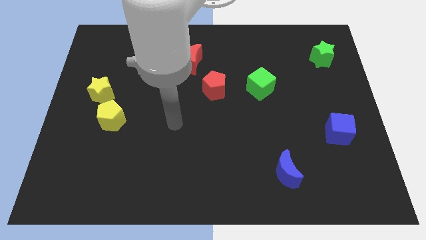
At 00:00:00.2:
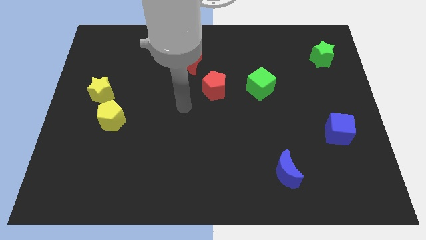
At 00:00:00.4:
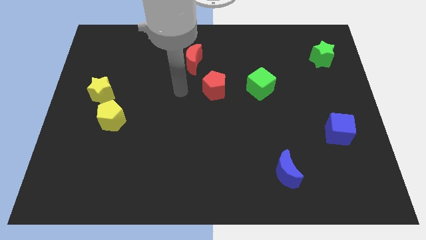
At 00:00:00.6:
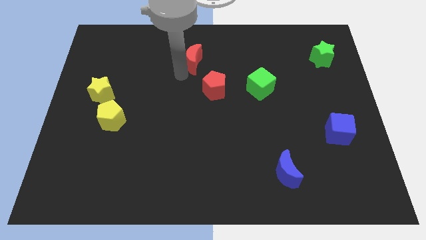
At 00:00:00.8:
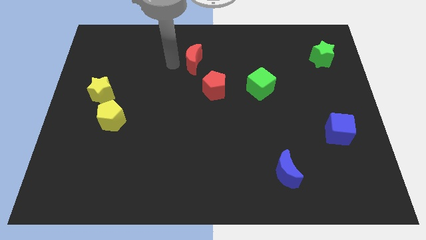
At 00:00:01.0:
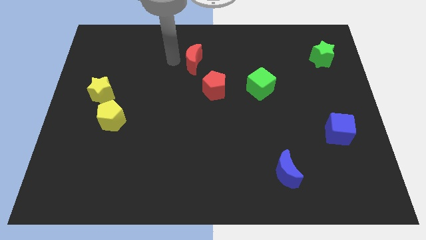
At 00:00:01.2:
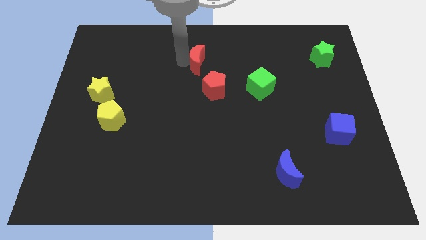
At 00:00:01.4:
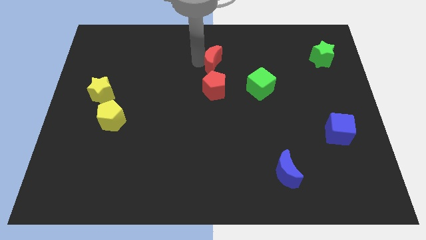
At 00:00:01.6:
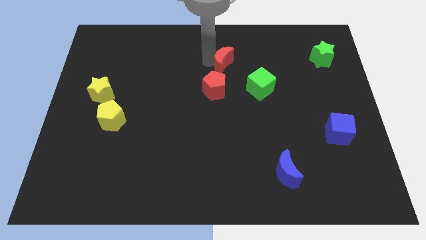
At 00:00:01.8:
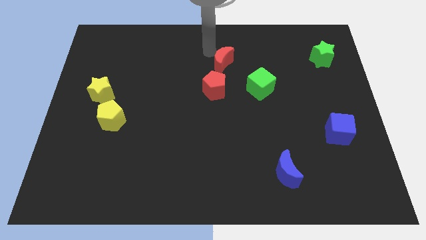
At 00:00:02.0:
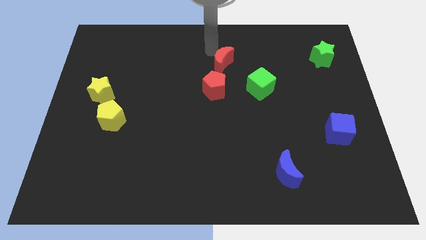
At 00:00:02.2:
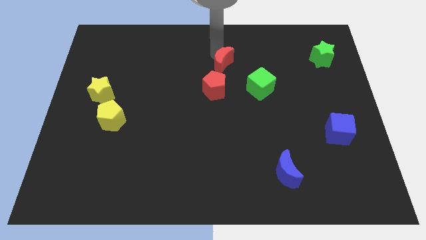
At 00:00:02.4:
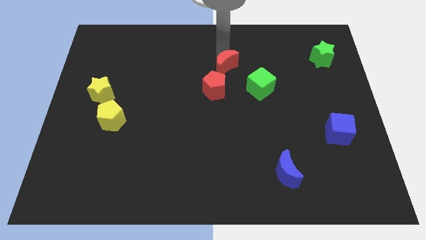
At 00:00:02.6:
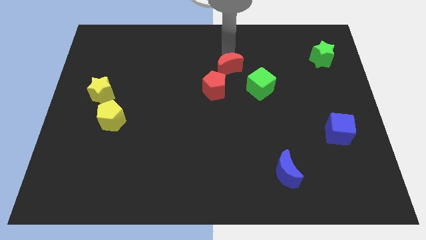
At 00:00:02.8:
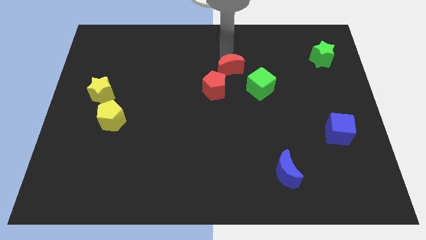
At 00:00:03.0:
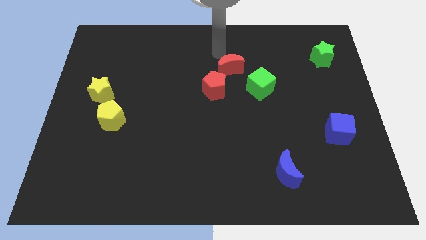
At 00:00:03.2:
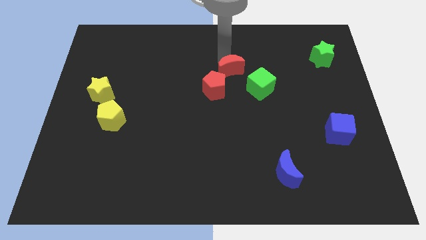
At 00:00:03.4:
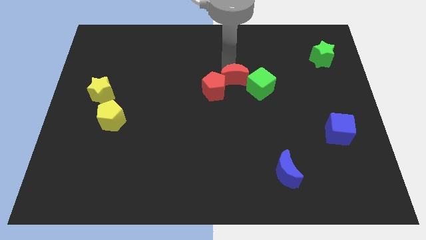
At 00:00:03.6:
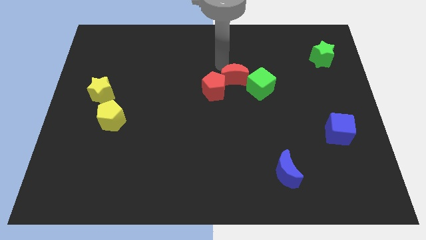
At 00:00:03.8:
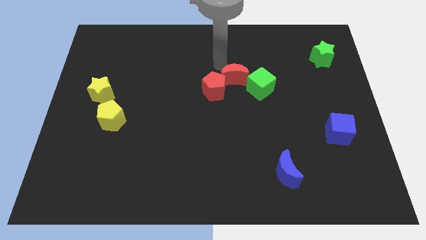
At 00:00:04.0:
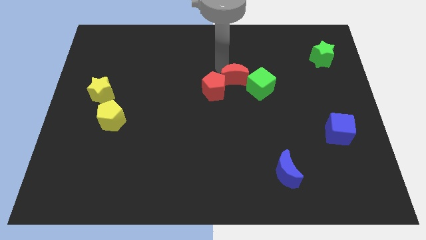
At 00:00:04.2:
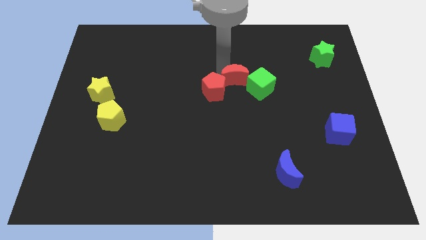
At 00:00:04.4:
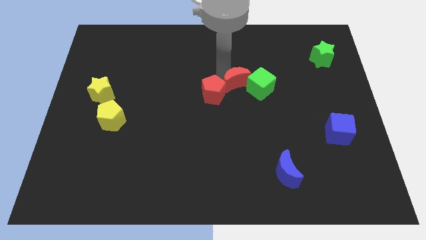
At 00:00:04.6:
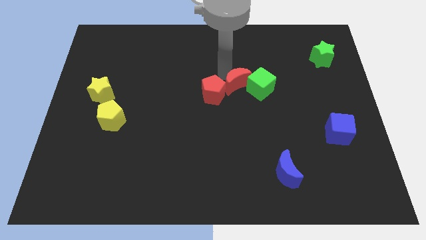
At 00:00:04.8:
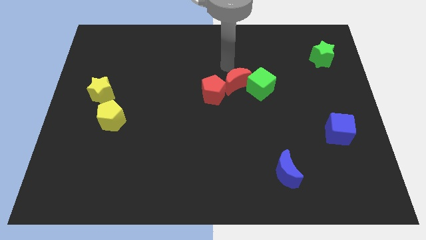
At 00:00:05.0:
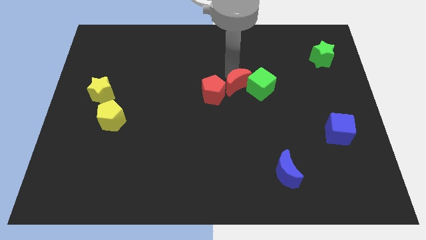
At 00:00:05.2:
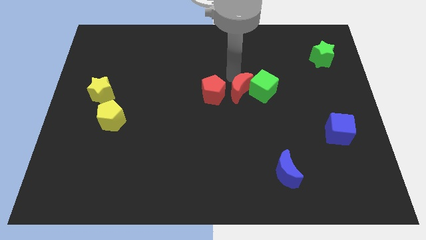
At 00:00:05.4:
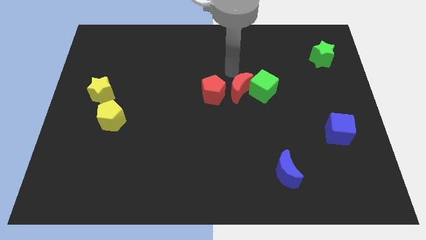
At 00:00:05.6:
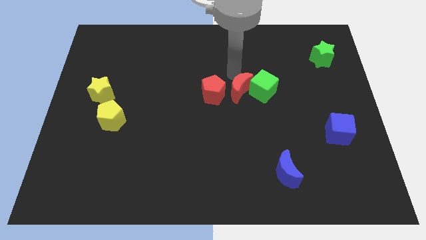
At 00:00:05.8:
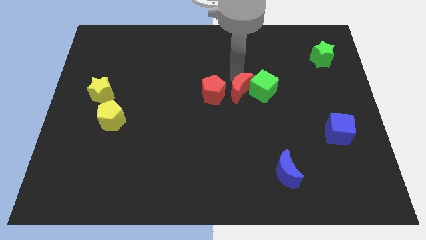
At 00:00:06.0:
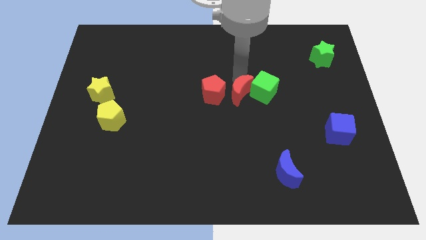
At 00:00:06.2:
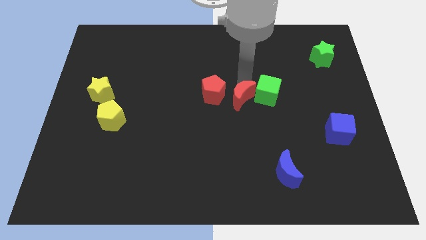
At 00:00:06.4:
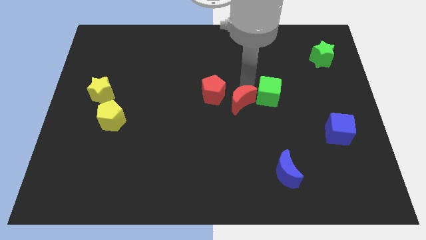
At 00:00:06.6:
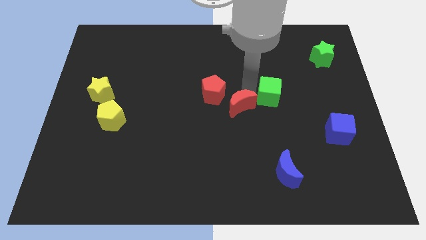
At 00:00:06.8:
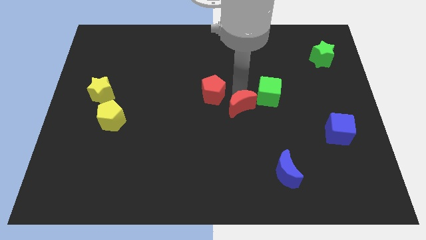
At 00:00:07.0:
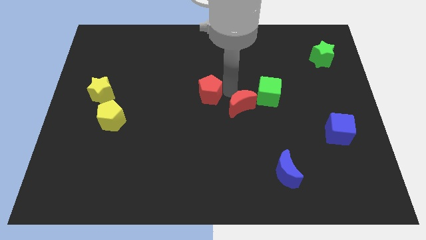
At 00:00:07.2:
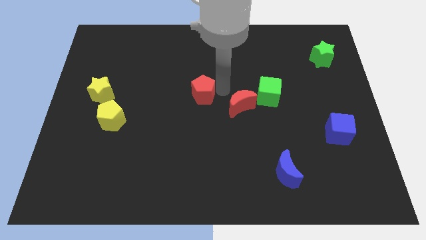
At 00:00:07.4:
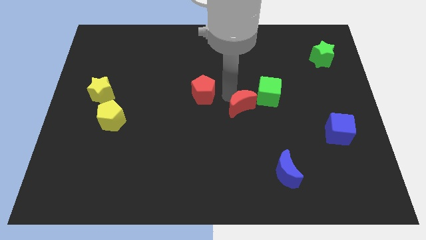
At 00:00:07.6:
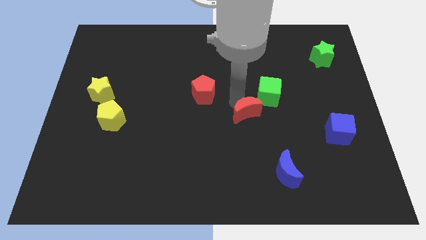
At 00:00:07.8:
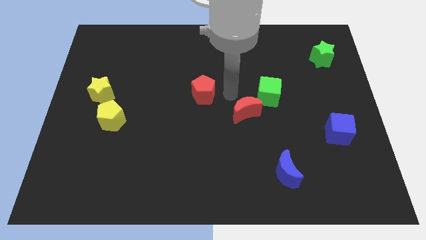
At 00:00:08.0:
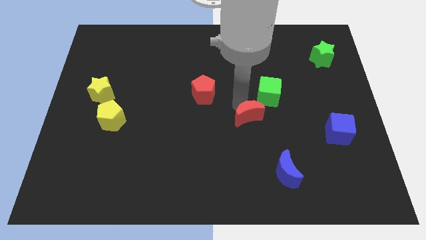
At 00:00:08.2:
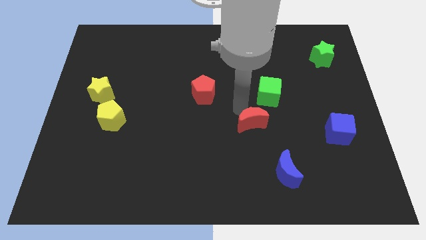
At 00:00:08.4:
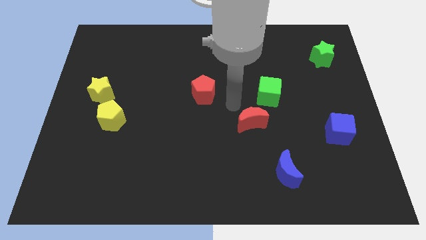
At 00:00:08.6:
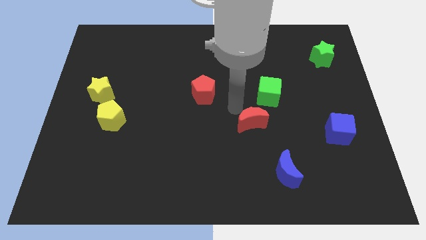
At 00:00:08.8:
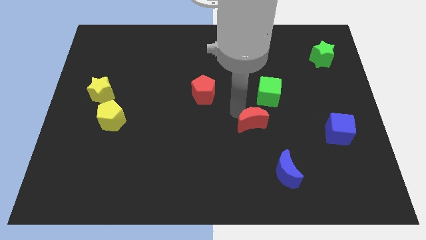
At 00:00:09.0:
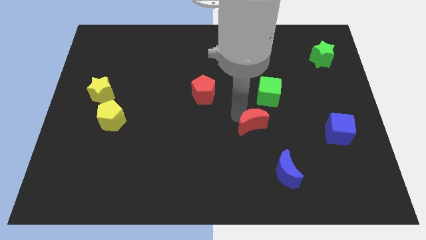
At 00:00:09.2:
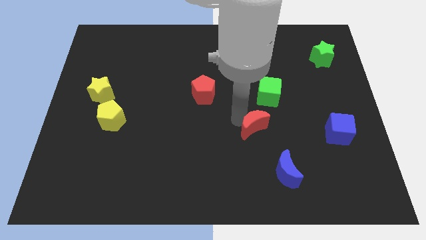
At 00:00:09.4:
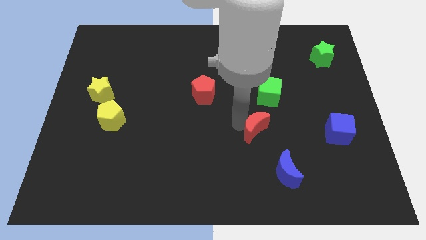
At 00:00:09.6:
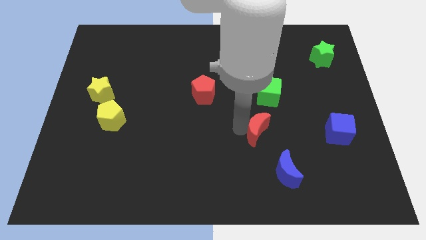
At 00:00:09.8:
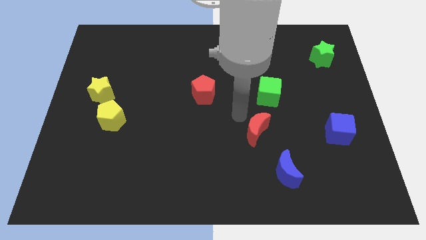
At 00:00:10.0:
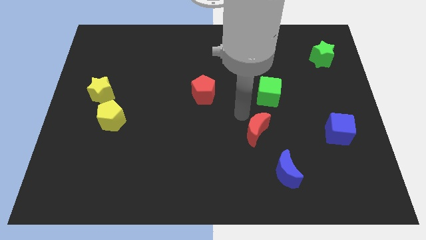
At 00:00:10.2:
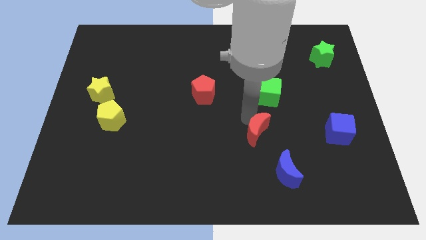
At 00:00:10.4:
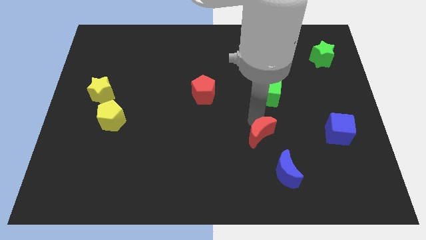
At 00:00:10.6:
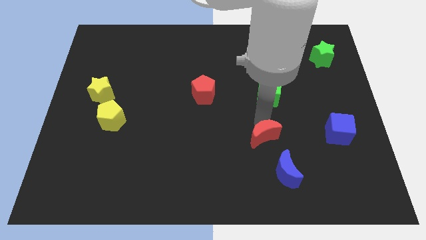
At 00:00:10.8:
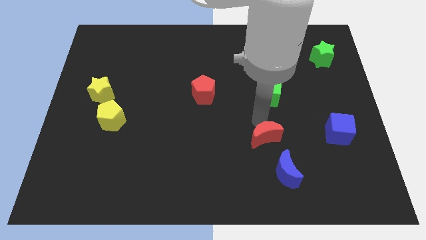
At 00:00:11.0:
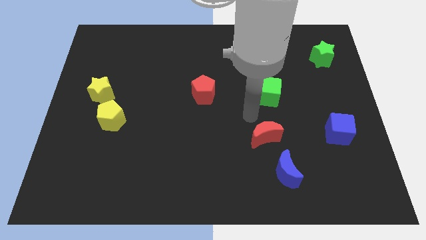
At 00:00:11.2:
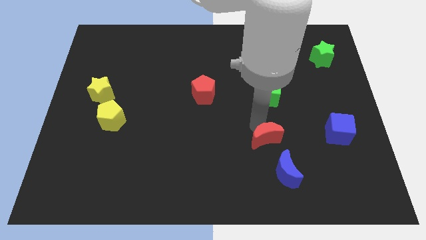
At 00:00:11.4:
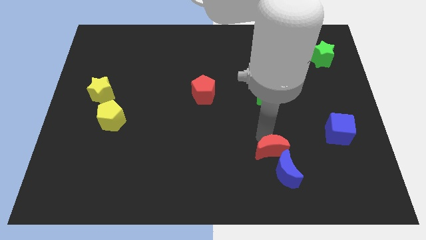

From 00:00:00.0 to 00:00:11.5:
slide the red moon next to the blue moon
